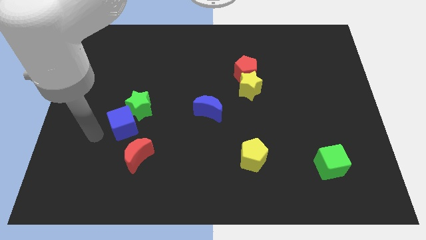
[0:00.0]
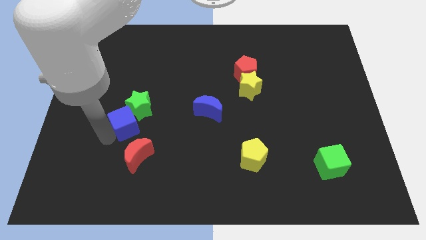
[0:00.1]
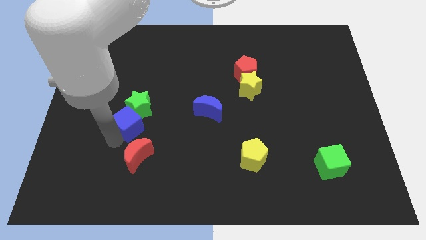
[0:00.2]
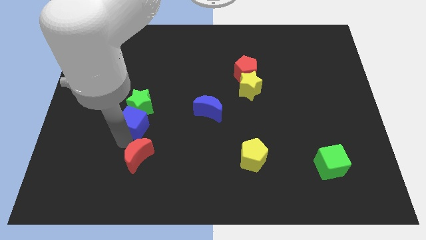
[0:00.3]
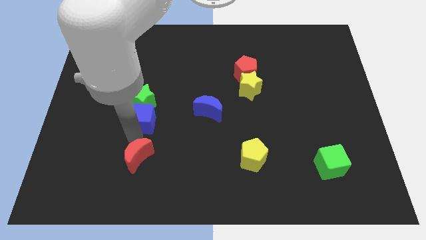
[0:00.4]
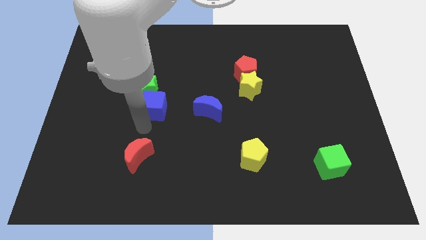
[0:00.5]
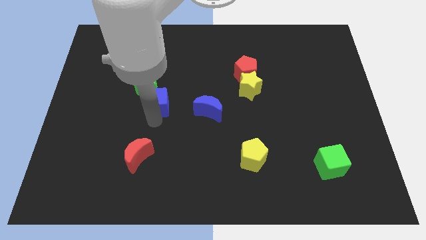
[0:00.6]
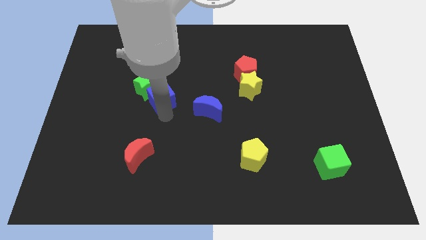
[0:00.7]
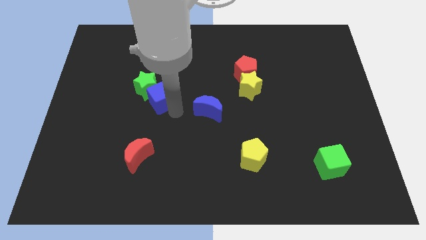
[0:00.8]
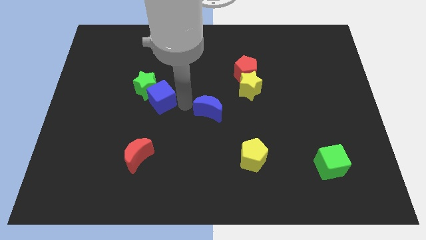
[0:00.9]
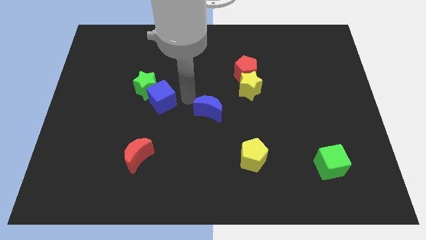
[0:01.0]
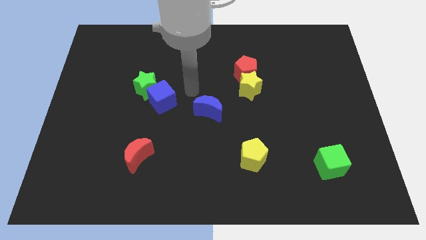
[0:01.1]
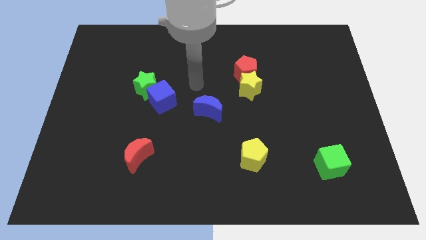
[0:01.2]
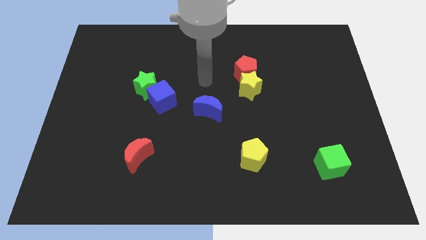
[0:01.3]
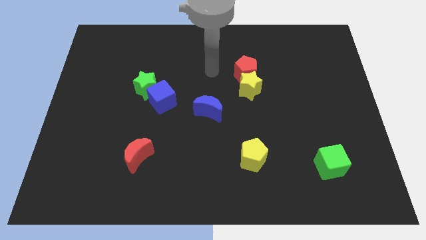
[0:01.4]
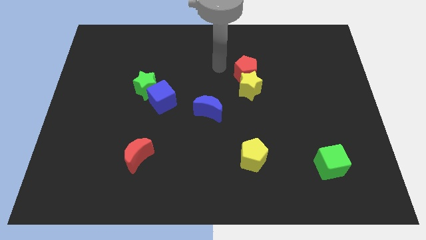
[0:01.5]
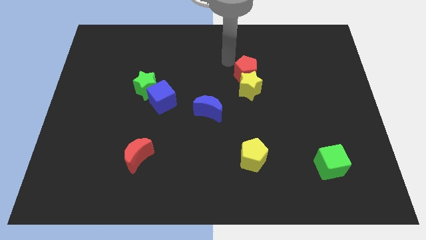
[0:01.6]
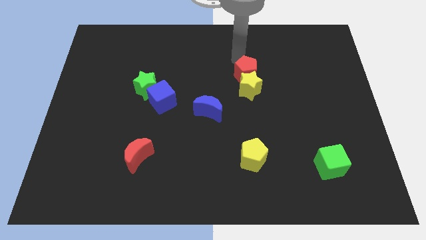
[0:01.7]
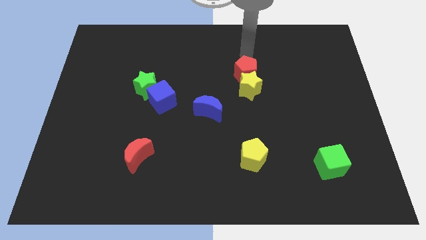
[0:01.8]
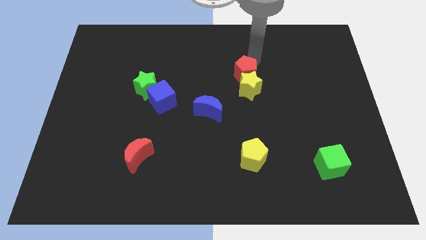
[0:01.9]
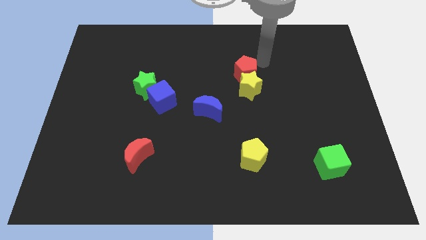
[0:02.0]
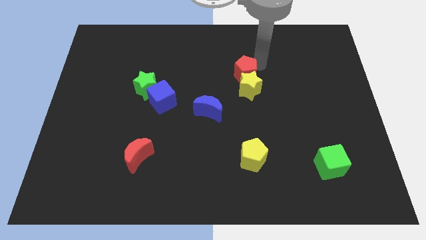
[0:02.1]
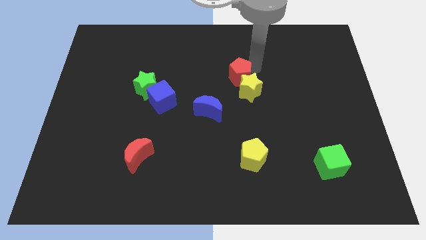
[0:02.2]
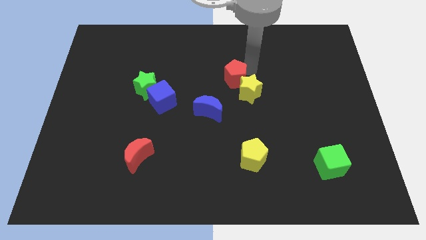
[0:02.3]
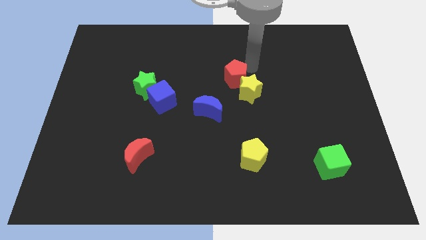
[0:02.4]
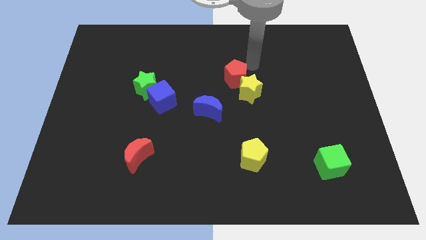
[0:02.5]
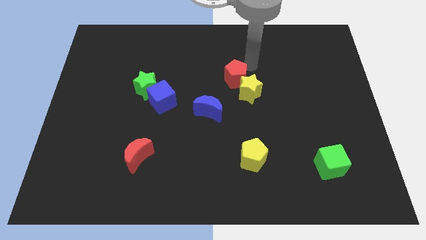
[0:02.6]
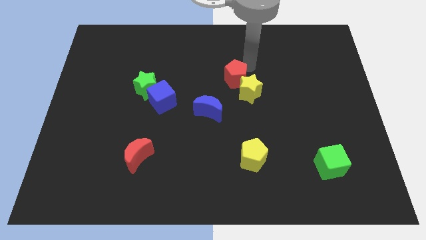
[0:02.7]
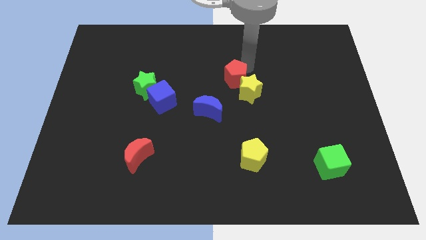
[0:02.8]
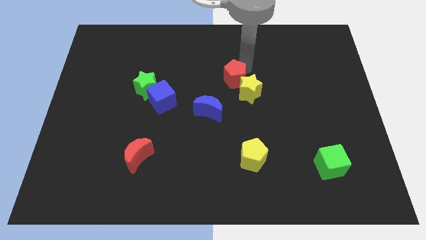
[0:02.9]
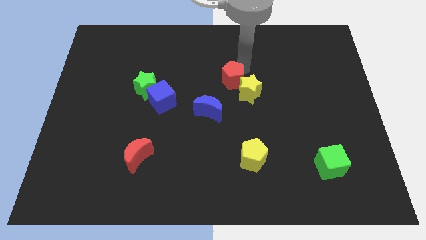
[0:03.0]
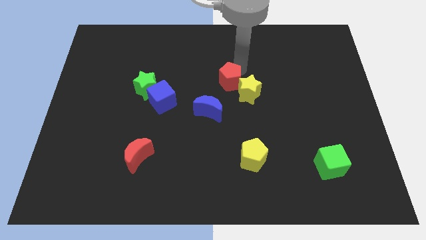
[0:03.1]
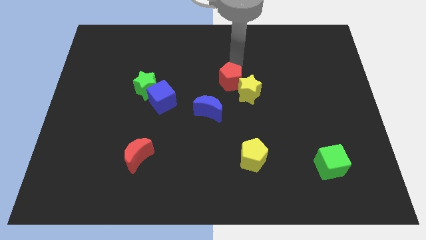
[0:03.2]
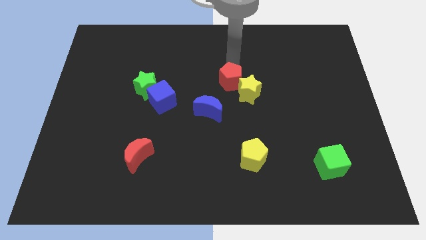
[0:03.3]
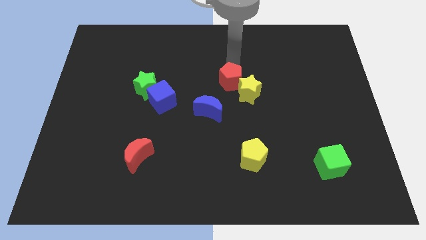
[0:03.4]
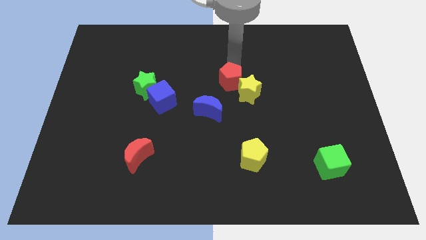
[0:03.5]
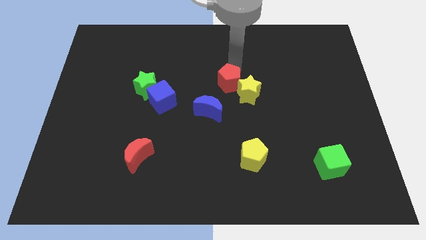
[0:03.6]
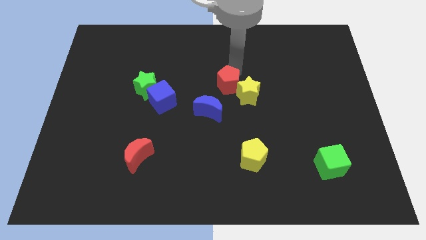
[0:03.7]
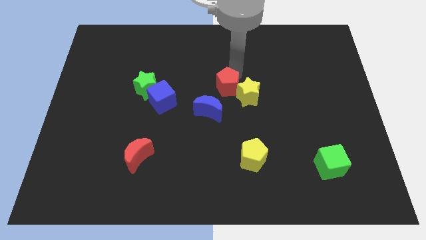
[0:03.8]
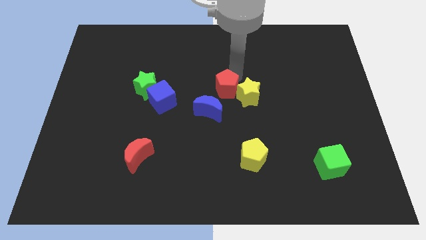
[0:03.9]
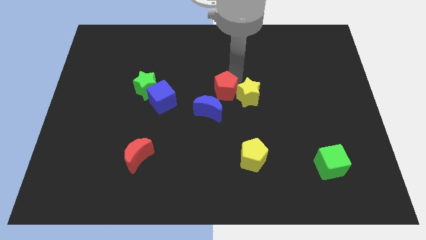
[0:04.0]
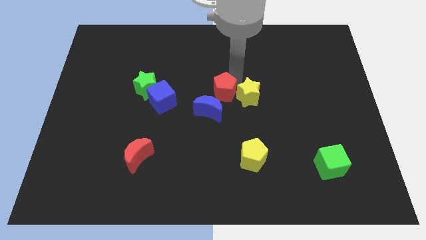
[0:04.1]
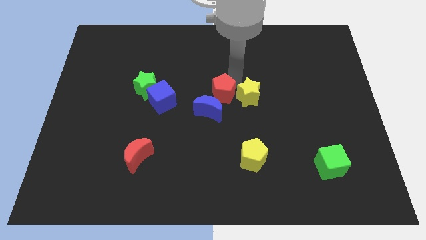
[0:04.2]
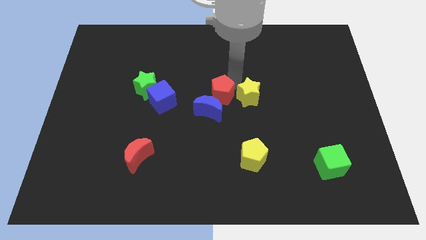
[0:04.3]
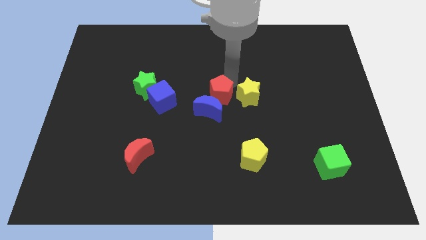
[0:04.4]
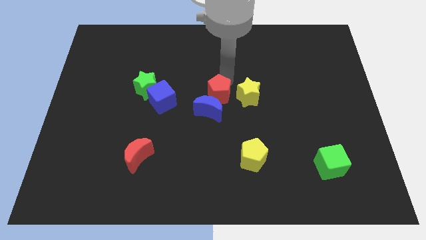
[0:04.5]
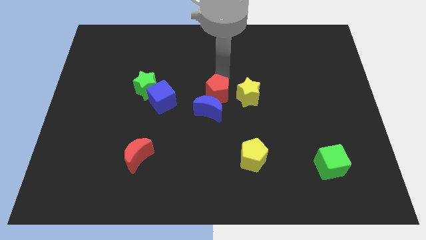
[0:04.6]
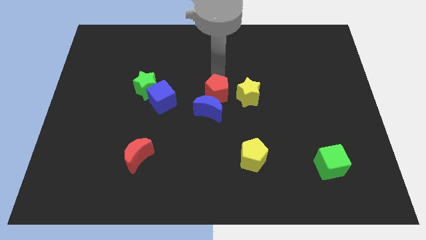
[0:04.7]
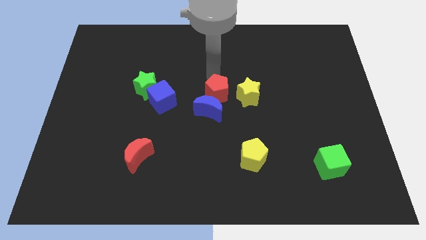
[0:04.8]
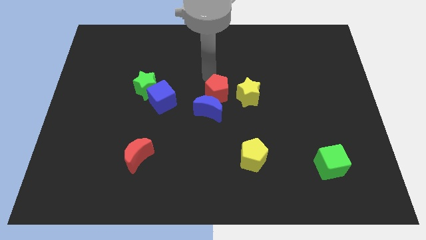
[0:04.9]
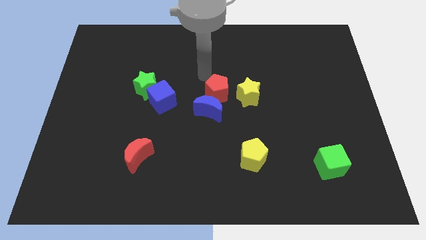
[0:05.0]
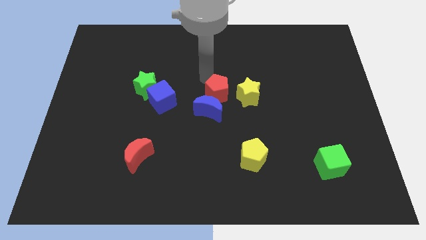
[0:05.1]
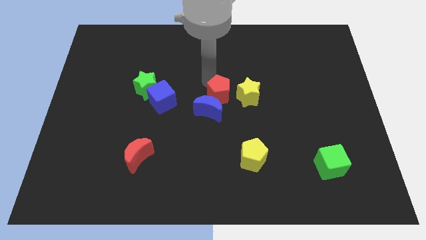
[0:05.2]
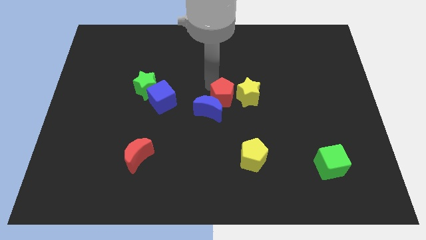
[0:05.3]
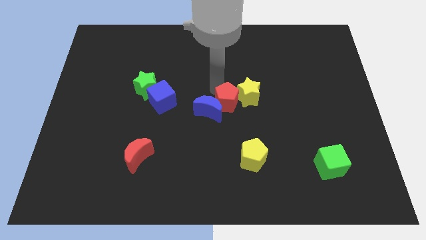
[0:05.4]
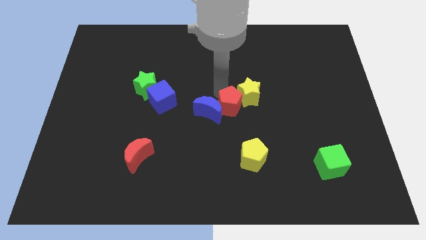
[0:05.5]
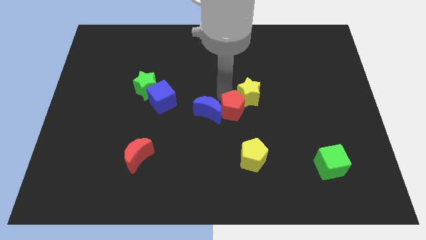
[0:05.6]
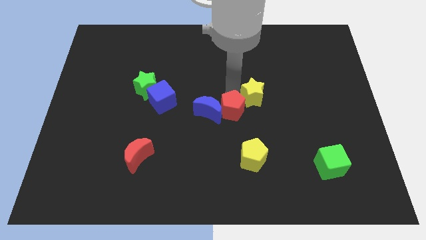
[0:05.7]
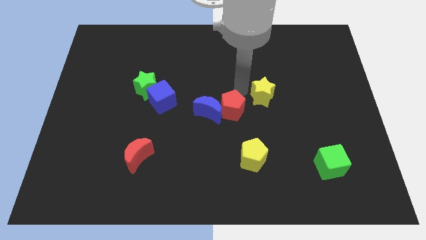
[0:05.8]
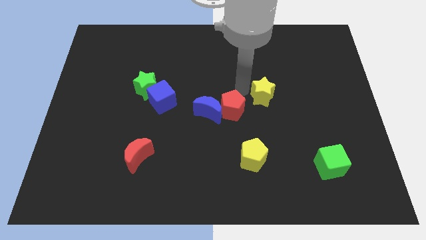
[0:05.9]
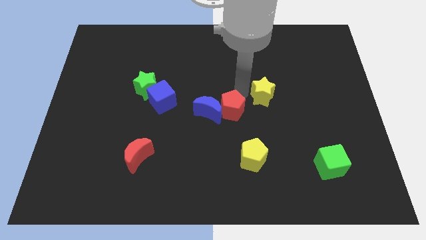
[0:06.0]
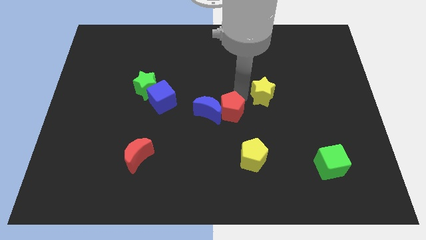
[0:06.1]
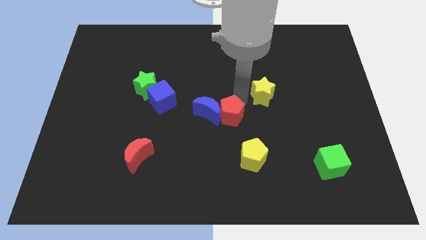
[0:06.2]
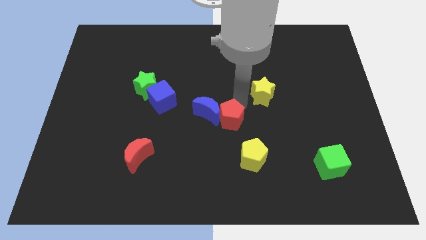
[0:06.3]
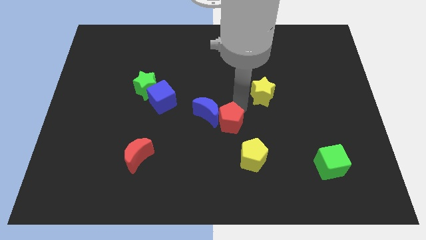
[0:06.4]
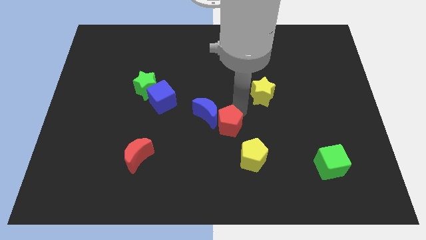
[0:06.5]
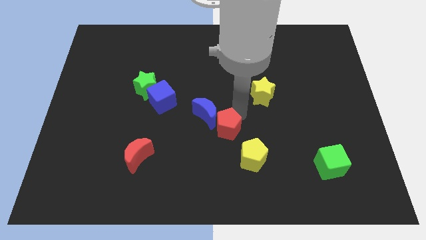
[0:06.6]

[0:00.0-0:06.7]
put the red pentagon below the blue moon

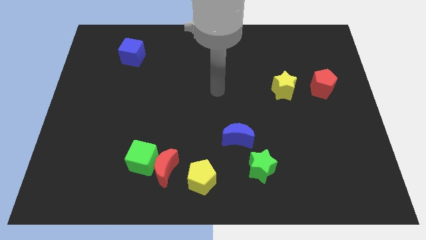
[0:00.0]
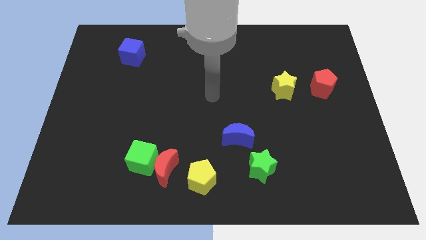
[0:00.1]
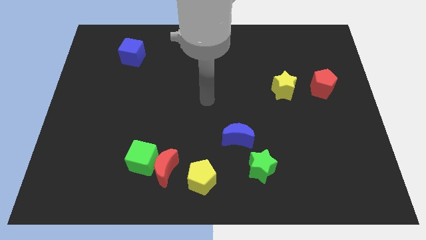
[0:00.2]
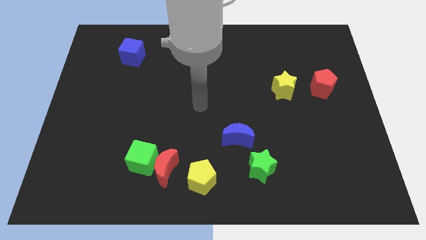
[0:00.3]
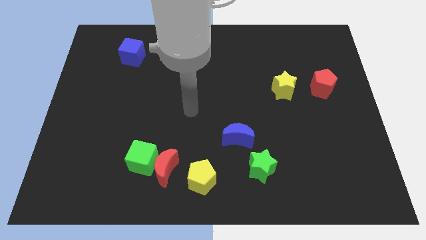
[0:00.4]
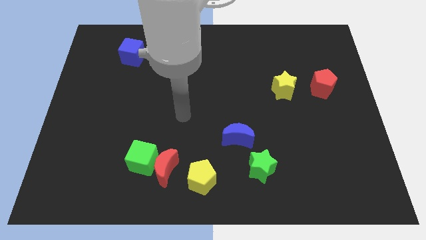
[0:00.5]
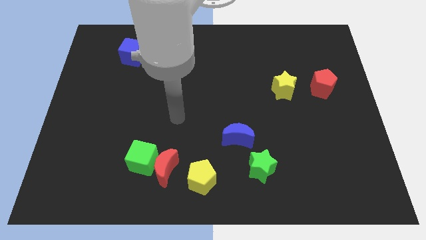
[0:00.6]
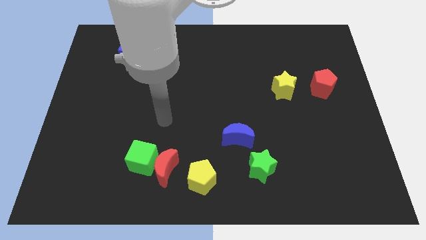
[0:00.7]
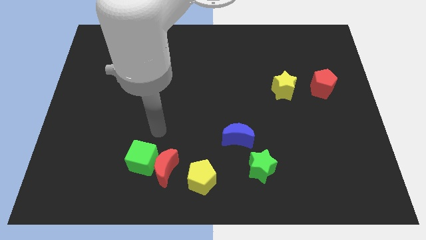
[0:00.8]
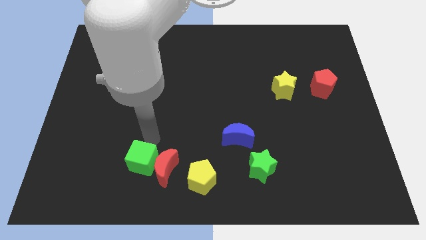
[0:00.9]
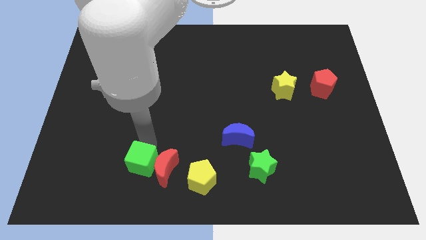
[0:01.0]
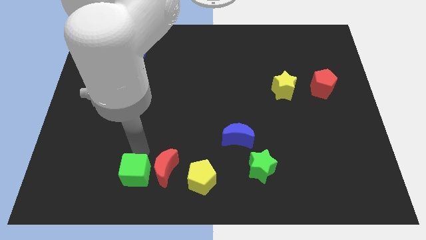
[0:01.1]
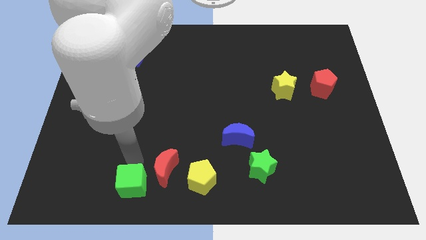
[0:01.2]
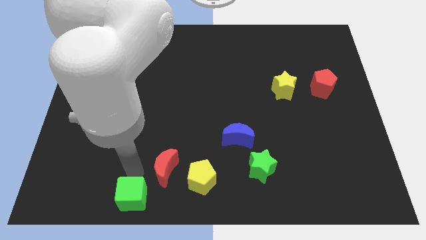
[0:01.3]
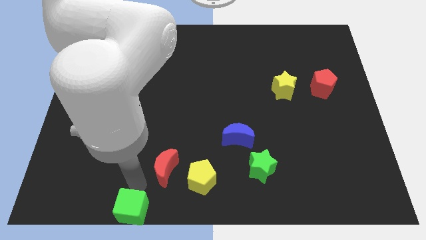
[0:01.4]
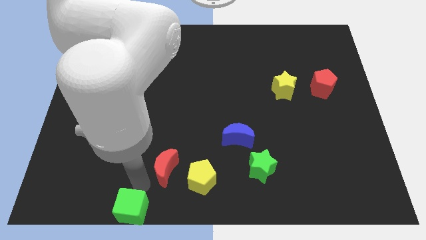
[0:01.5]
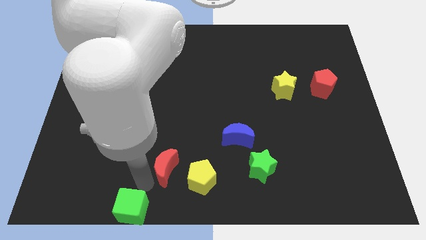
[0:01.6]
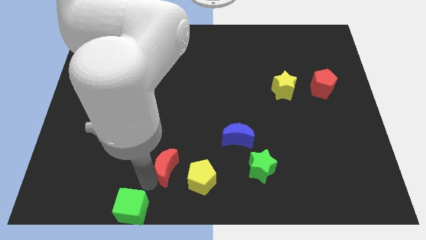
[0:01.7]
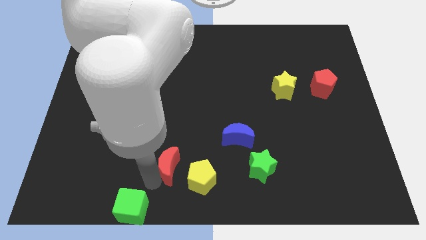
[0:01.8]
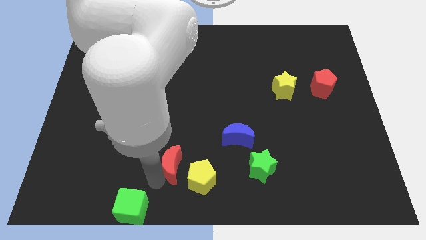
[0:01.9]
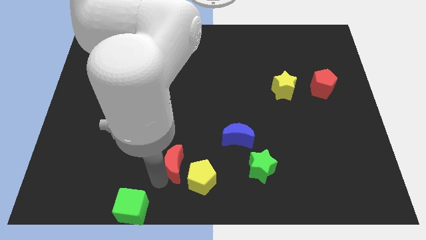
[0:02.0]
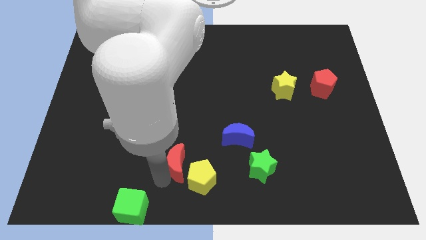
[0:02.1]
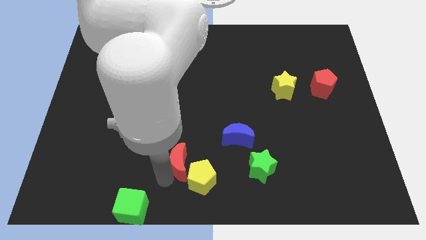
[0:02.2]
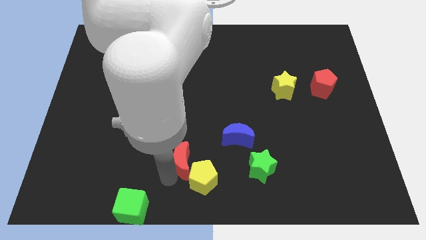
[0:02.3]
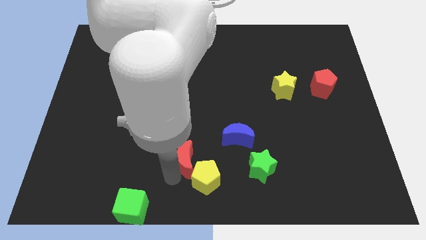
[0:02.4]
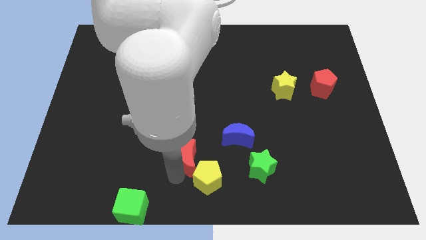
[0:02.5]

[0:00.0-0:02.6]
push the red moon to the bottom left side of the blue moon
